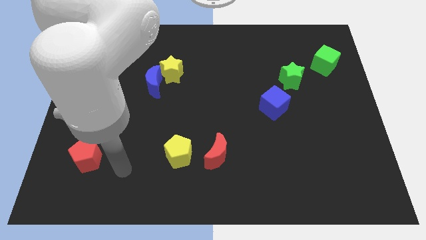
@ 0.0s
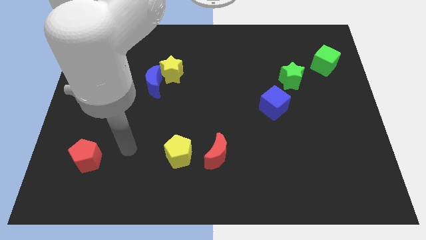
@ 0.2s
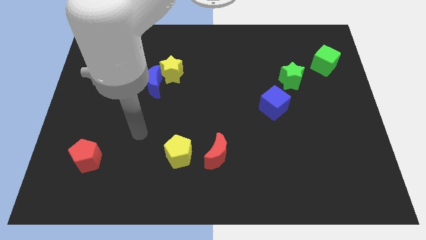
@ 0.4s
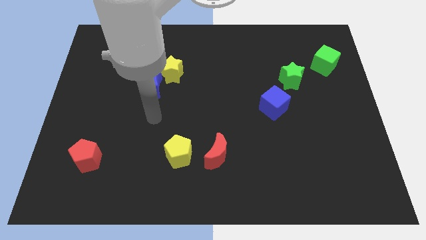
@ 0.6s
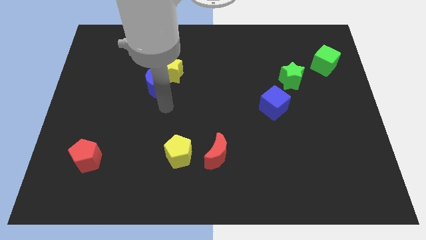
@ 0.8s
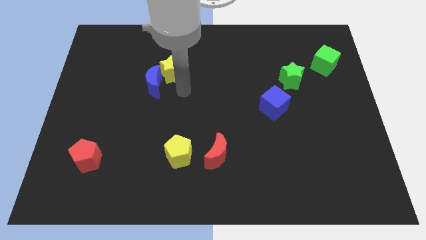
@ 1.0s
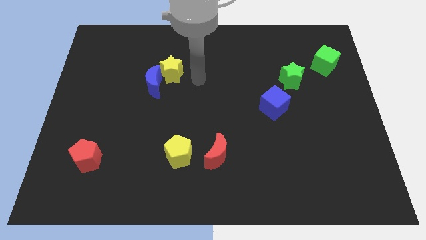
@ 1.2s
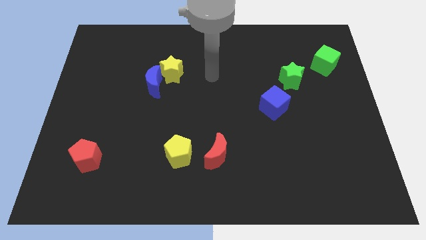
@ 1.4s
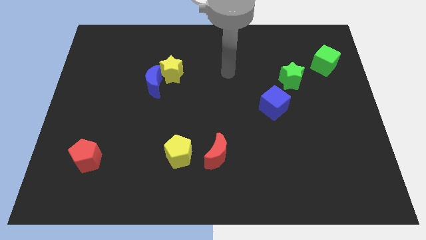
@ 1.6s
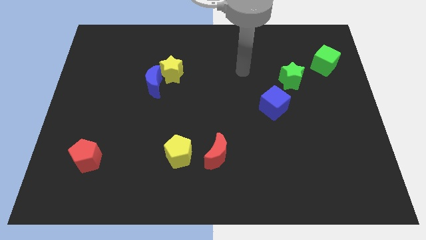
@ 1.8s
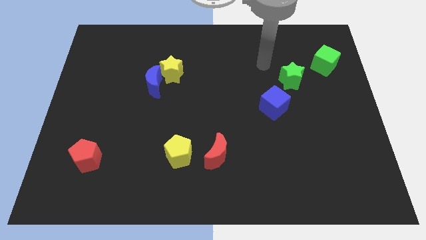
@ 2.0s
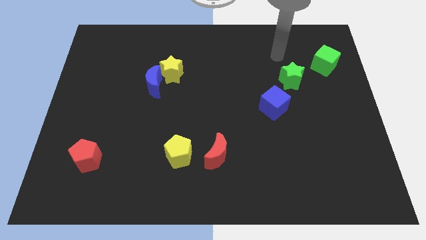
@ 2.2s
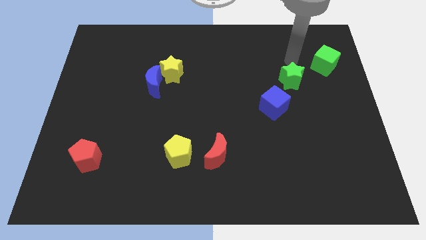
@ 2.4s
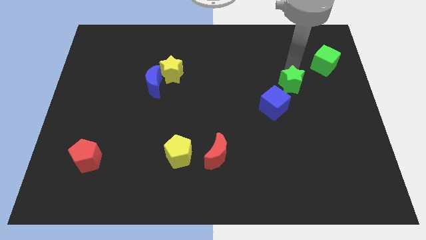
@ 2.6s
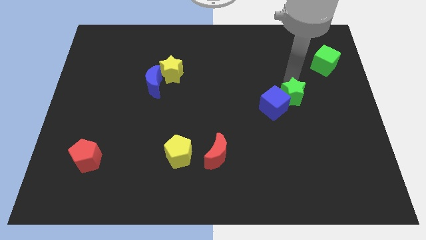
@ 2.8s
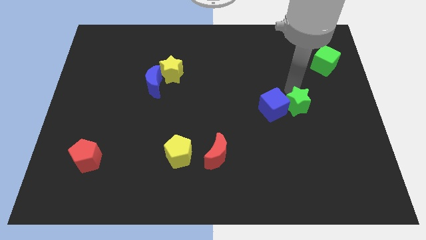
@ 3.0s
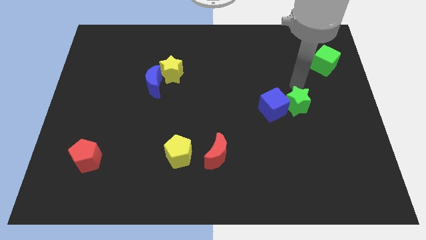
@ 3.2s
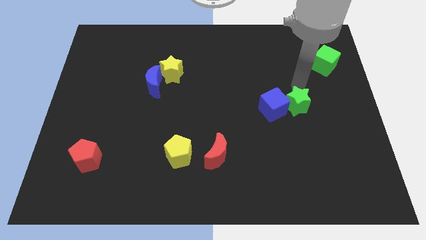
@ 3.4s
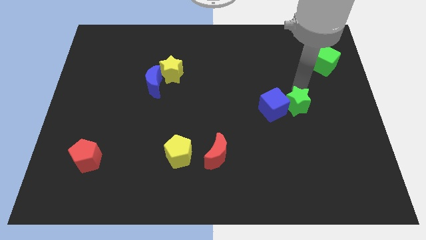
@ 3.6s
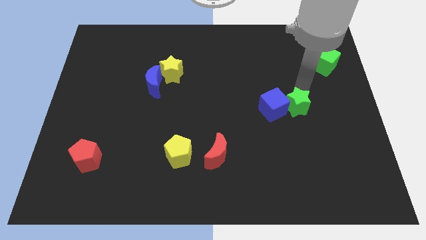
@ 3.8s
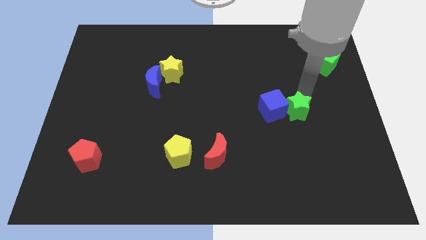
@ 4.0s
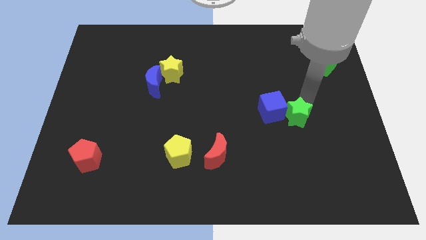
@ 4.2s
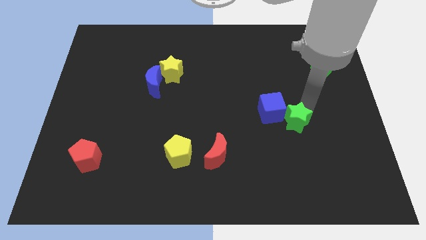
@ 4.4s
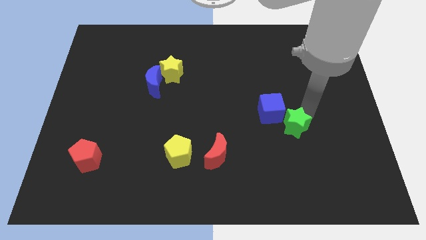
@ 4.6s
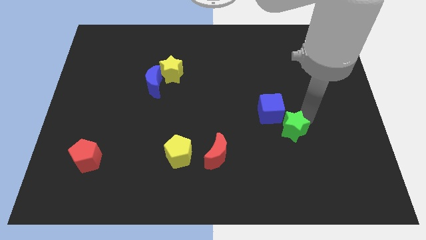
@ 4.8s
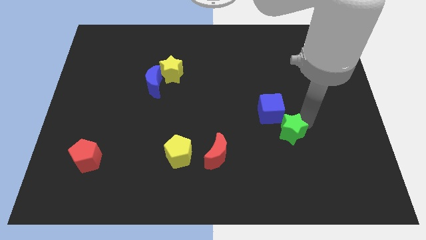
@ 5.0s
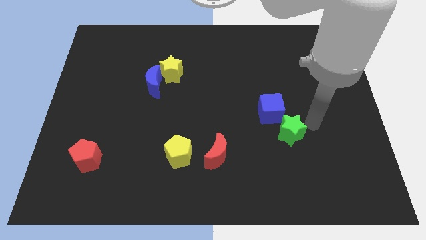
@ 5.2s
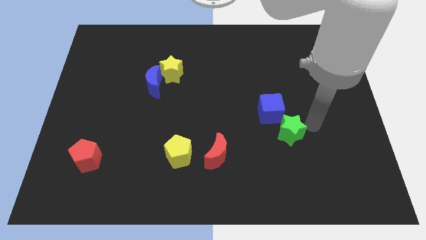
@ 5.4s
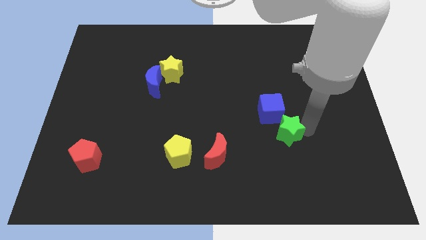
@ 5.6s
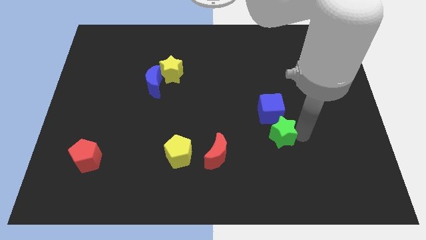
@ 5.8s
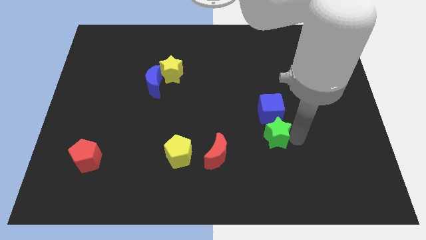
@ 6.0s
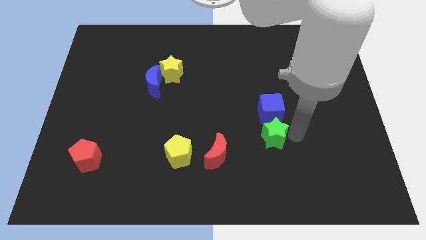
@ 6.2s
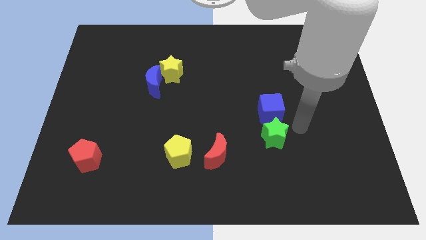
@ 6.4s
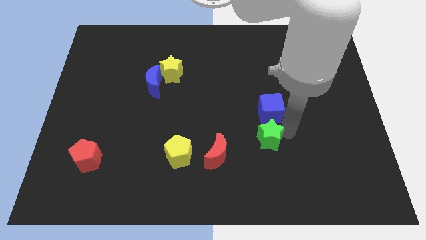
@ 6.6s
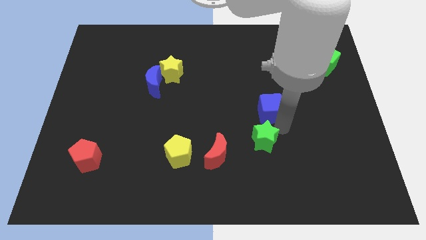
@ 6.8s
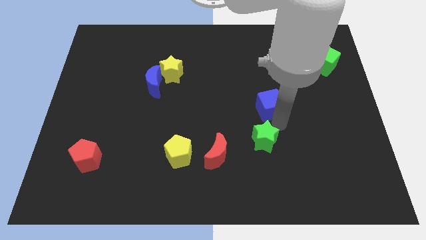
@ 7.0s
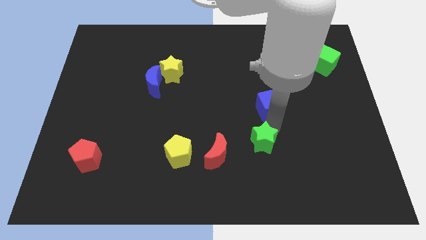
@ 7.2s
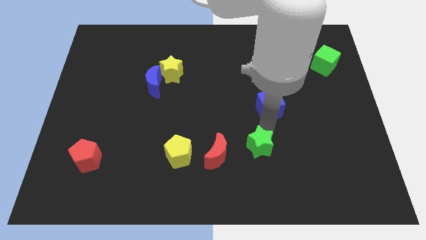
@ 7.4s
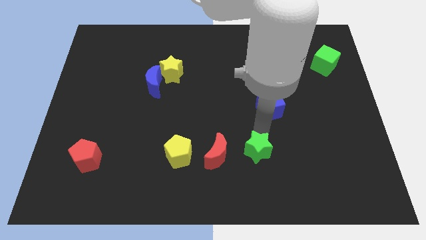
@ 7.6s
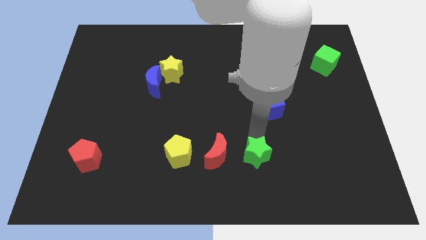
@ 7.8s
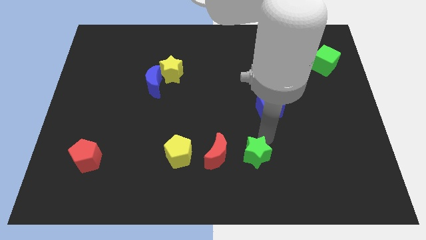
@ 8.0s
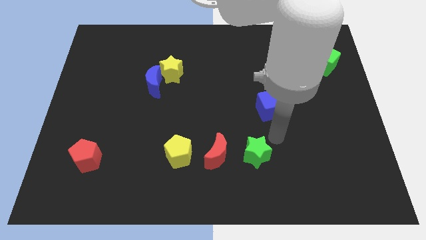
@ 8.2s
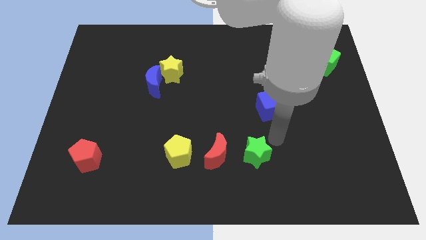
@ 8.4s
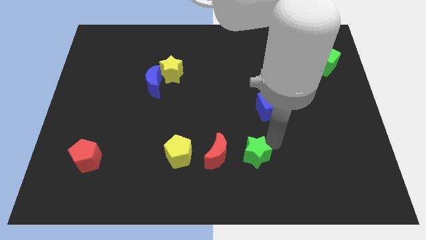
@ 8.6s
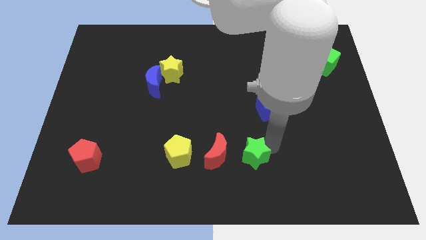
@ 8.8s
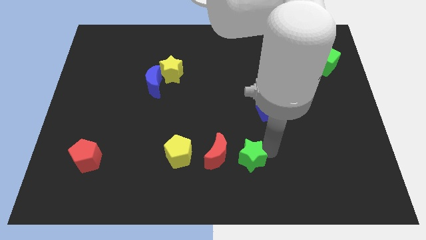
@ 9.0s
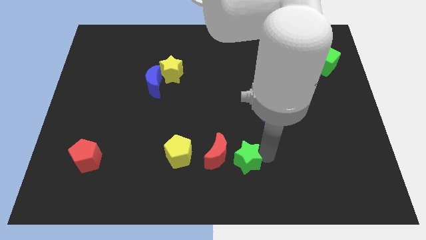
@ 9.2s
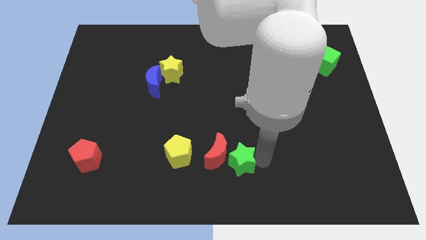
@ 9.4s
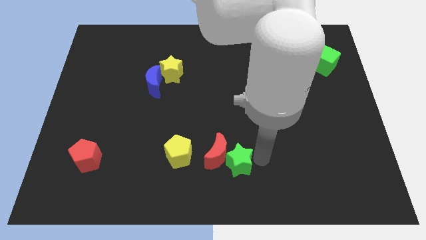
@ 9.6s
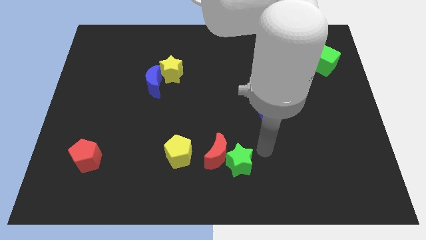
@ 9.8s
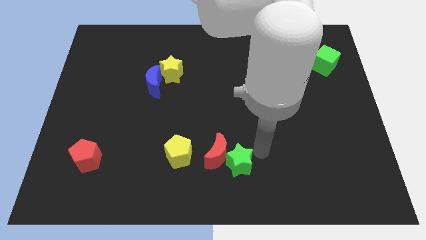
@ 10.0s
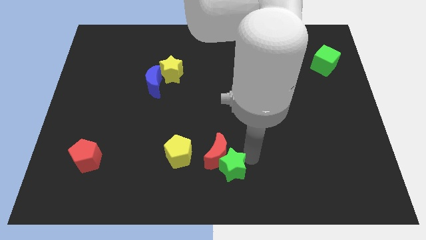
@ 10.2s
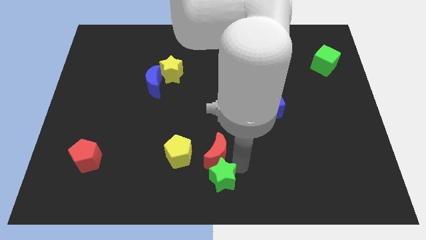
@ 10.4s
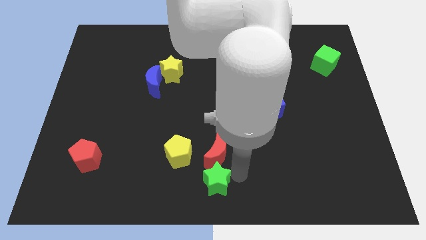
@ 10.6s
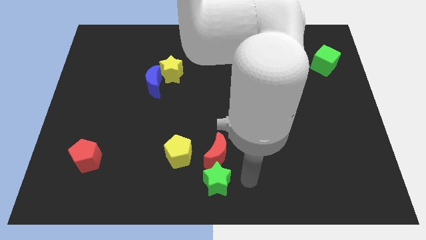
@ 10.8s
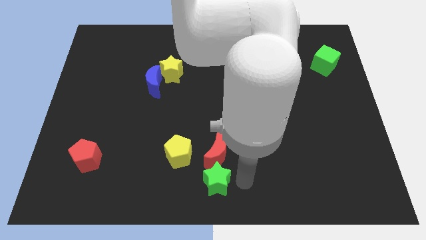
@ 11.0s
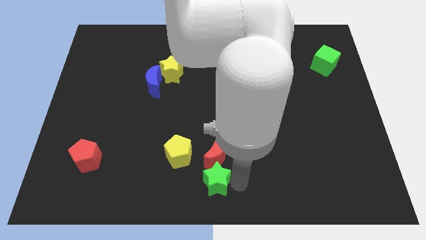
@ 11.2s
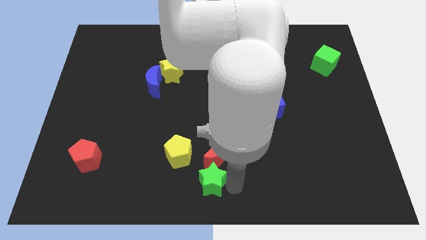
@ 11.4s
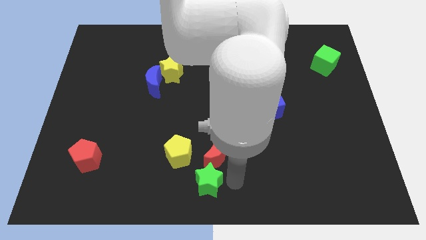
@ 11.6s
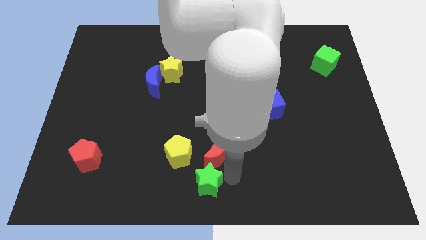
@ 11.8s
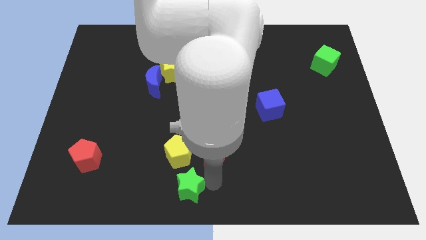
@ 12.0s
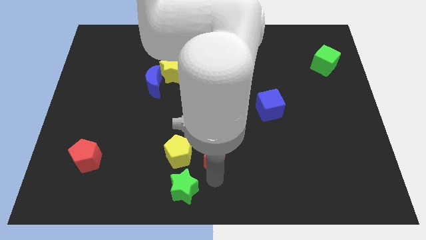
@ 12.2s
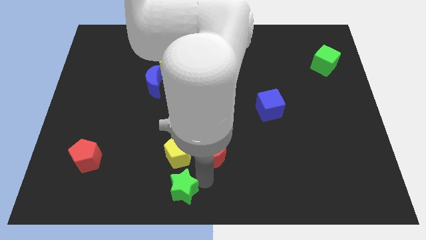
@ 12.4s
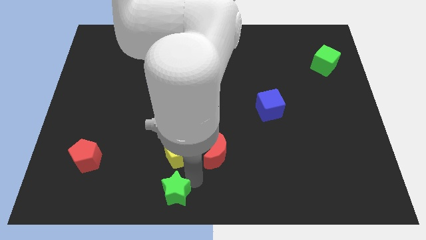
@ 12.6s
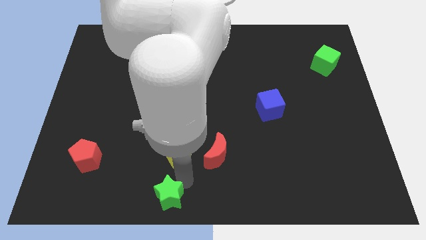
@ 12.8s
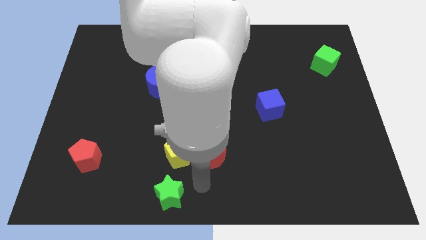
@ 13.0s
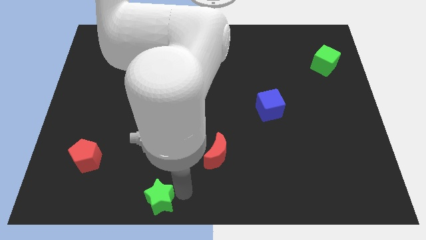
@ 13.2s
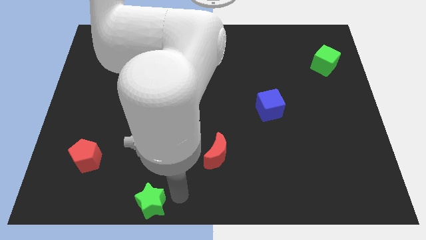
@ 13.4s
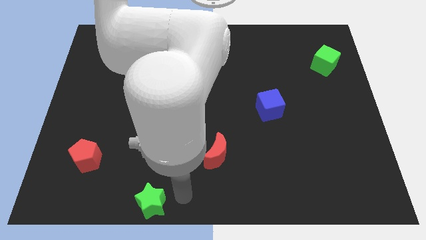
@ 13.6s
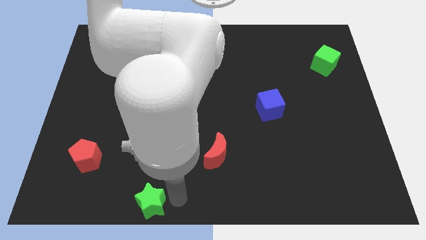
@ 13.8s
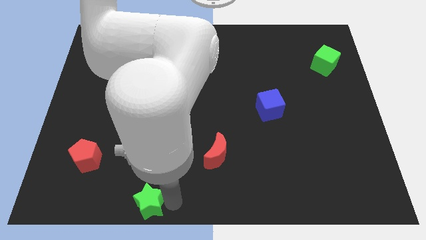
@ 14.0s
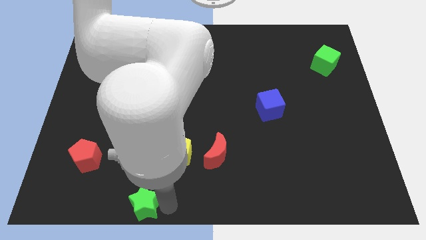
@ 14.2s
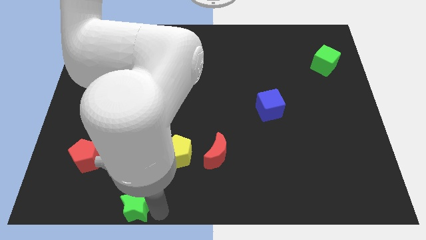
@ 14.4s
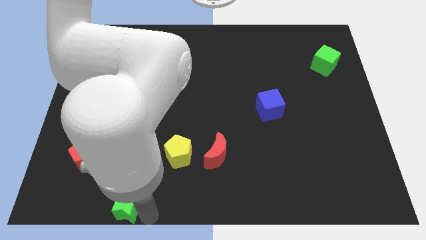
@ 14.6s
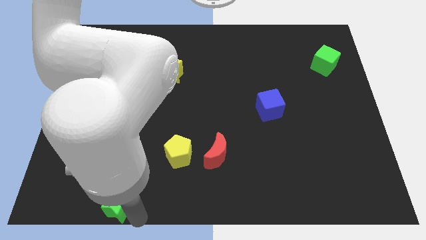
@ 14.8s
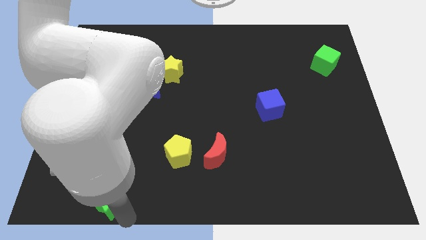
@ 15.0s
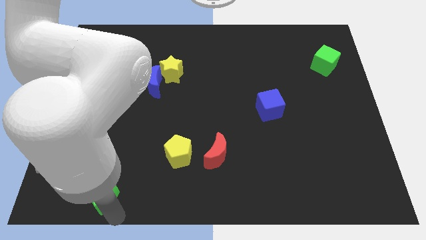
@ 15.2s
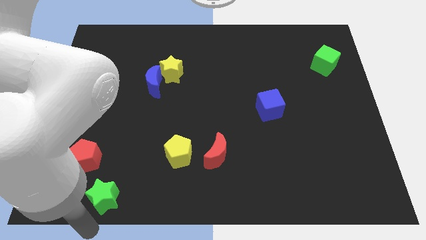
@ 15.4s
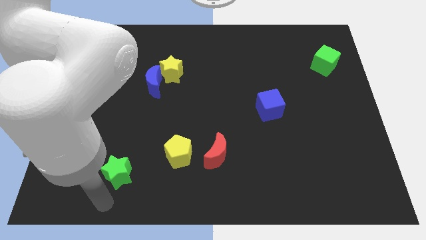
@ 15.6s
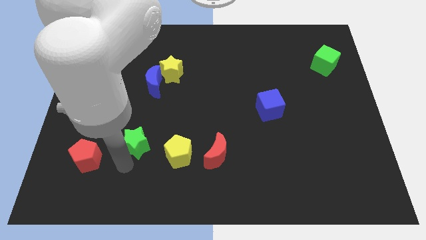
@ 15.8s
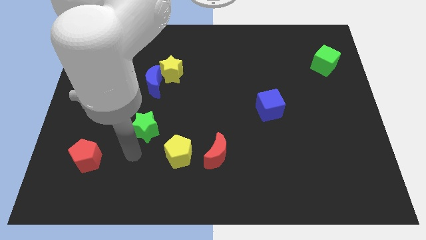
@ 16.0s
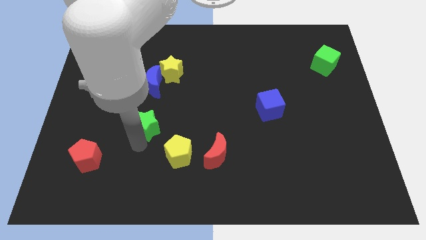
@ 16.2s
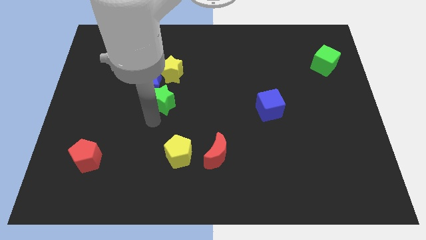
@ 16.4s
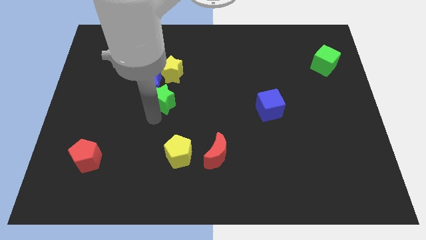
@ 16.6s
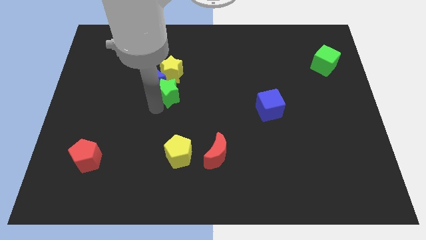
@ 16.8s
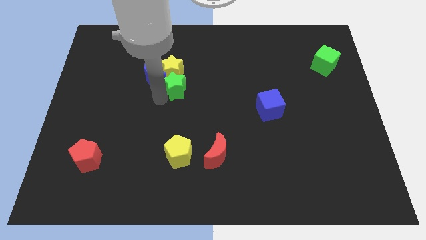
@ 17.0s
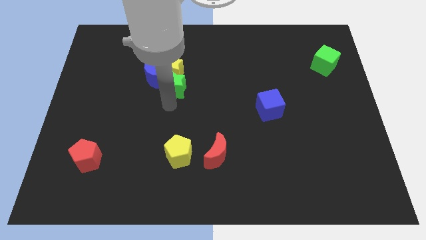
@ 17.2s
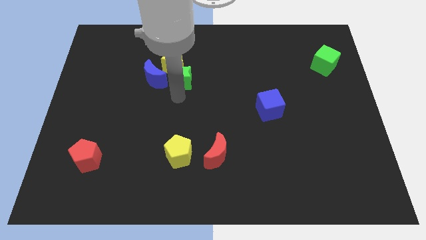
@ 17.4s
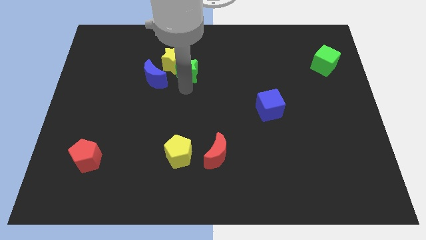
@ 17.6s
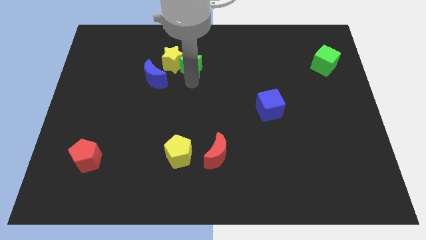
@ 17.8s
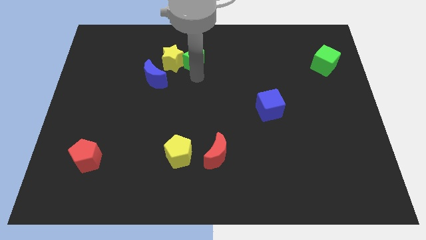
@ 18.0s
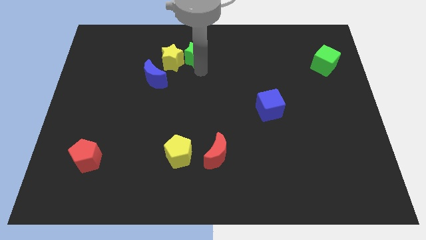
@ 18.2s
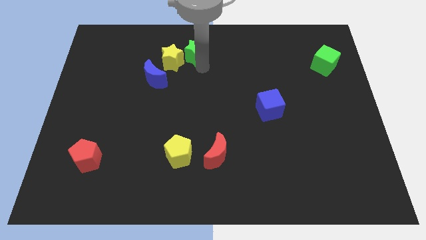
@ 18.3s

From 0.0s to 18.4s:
push the green star to the top side
